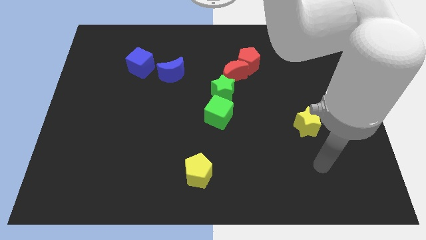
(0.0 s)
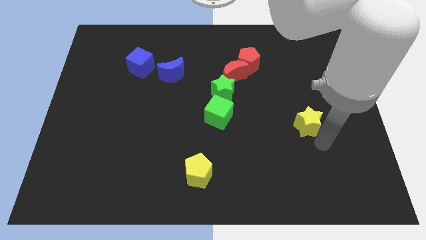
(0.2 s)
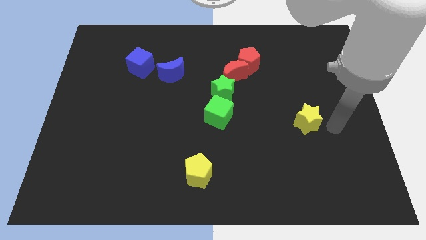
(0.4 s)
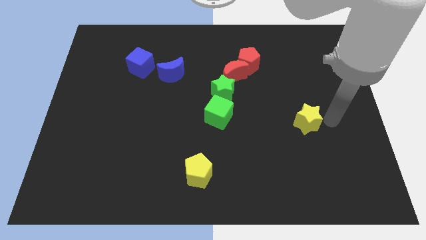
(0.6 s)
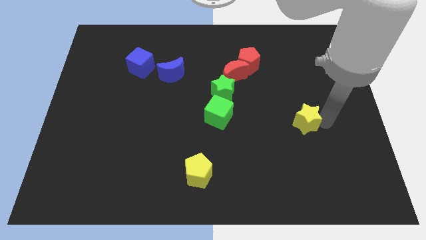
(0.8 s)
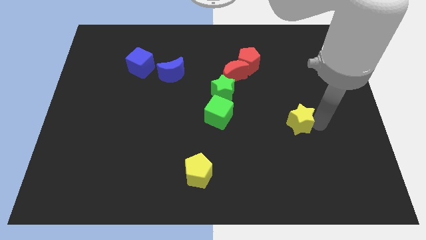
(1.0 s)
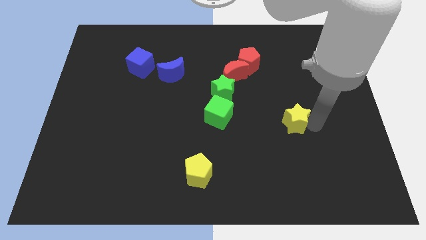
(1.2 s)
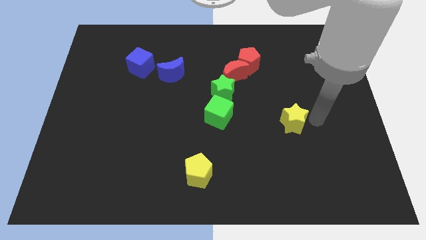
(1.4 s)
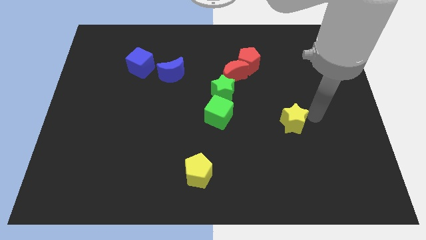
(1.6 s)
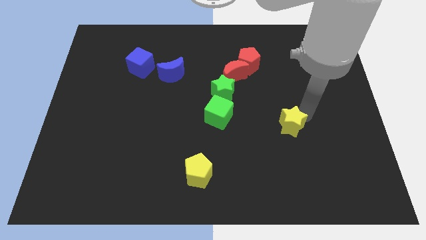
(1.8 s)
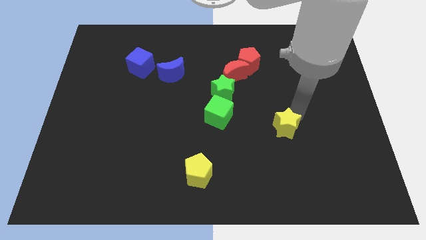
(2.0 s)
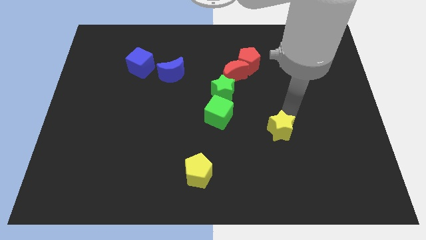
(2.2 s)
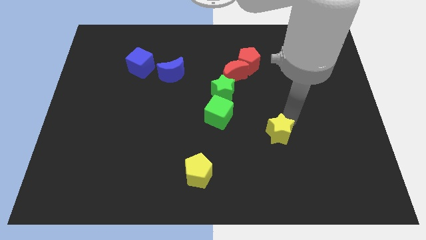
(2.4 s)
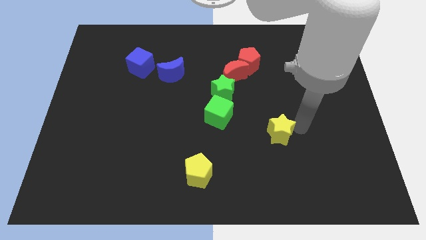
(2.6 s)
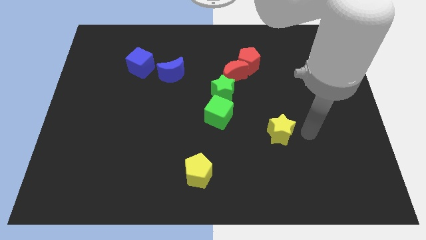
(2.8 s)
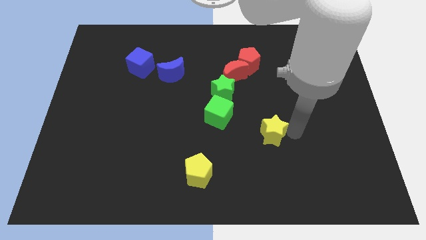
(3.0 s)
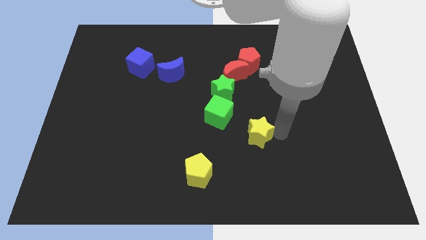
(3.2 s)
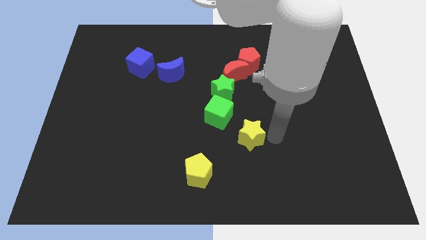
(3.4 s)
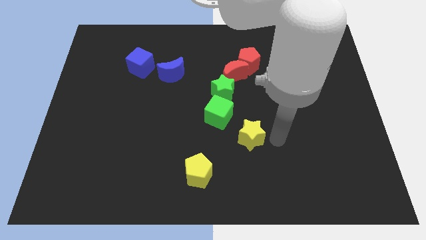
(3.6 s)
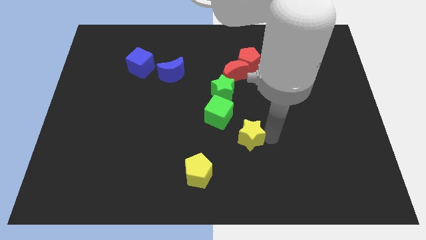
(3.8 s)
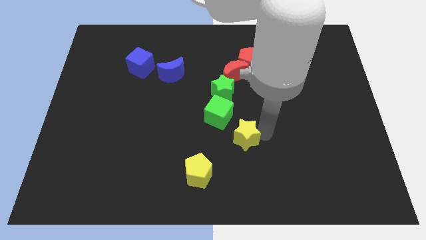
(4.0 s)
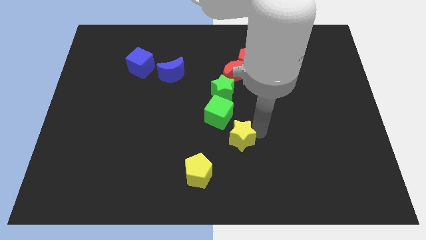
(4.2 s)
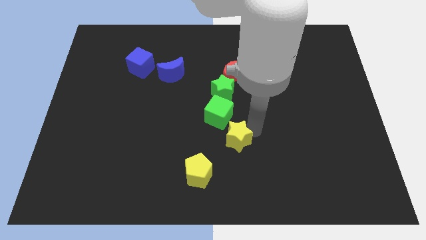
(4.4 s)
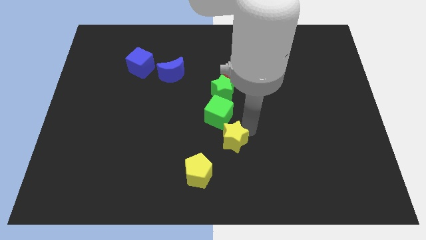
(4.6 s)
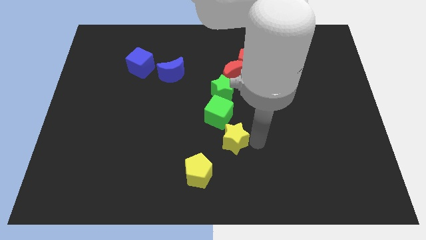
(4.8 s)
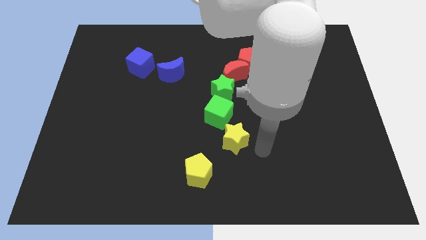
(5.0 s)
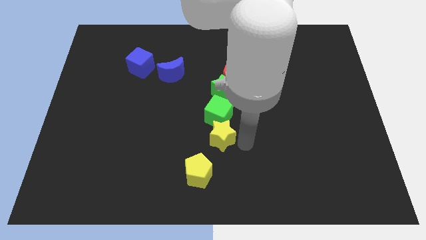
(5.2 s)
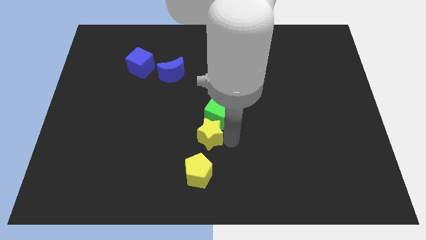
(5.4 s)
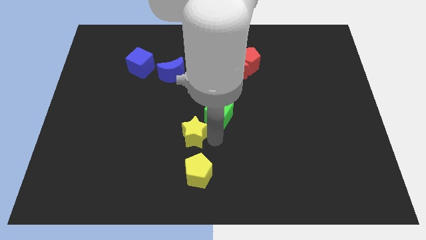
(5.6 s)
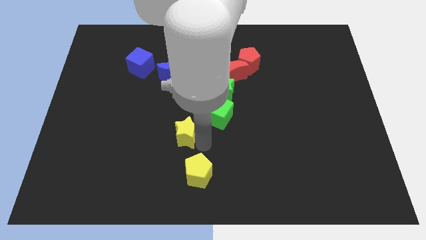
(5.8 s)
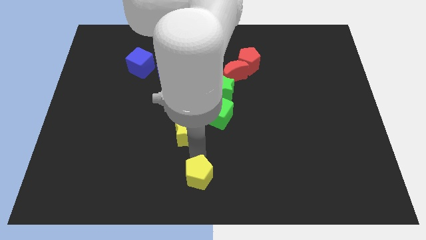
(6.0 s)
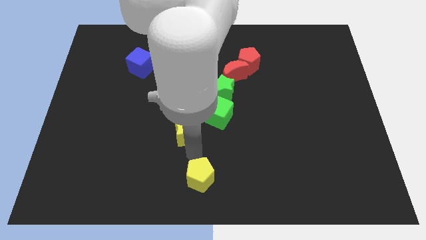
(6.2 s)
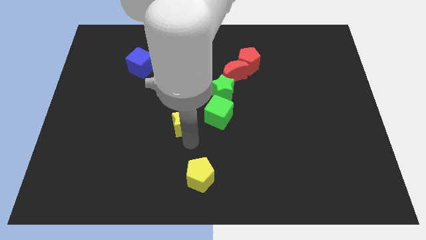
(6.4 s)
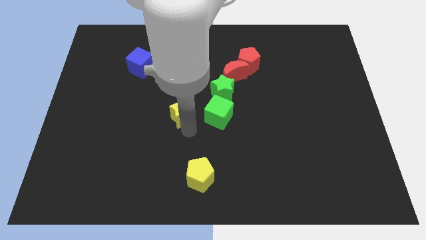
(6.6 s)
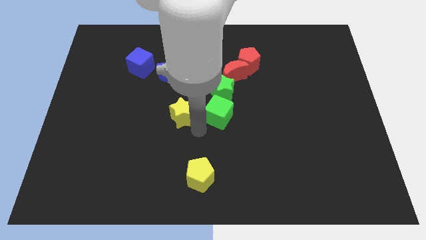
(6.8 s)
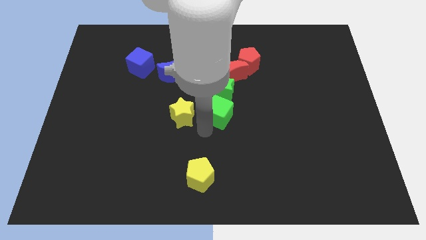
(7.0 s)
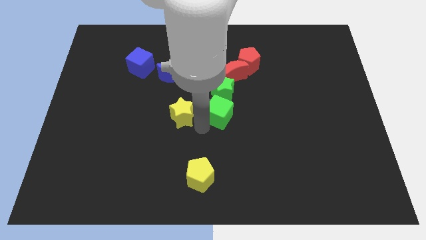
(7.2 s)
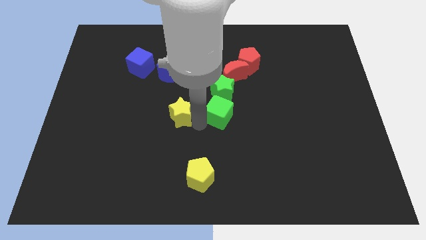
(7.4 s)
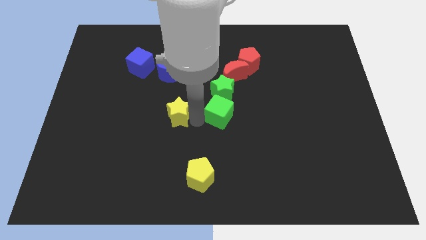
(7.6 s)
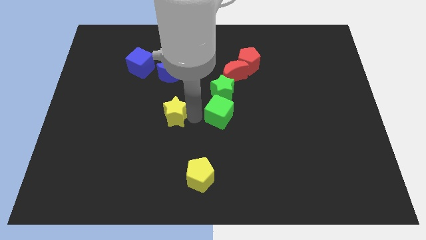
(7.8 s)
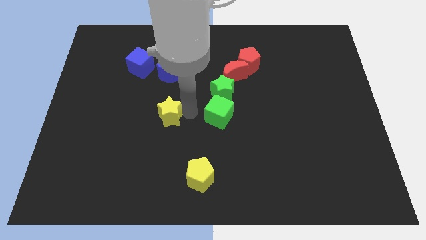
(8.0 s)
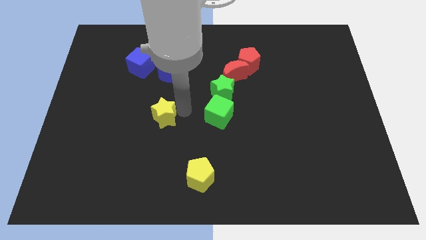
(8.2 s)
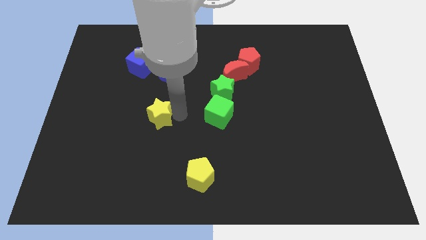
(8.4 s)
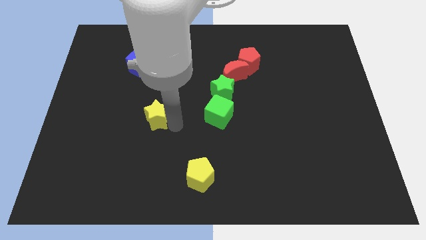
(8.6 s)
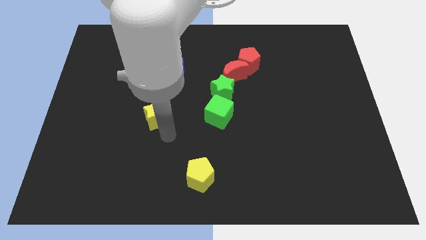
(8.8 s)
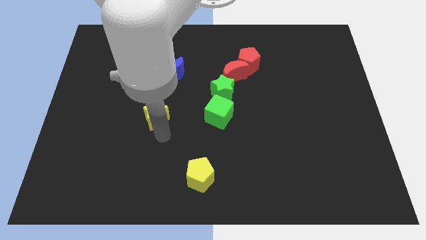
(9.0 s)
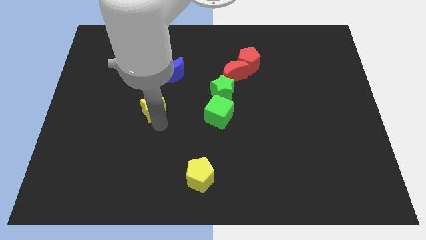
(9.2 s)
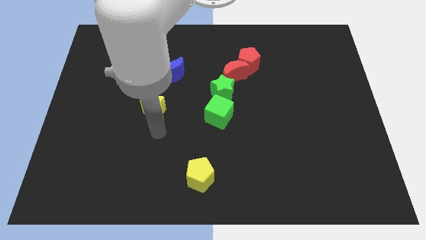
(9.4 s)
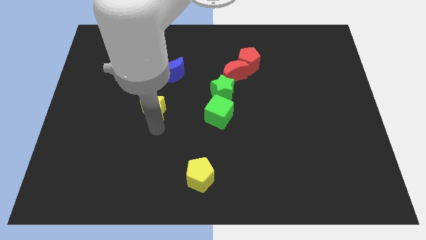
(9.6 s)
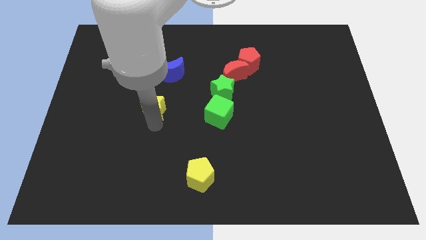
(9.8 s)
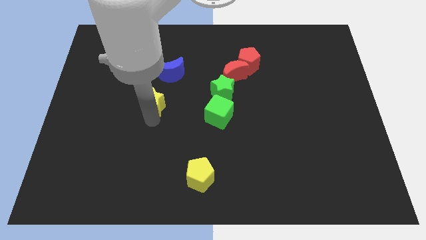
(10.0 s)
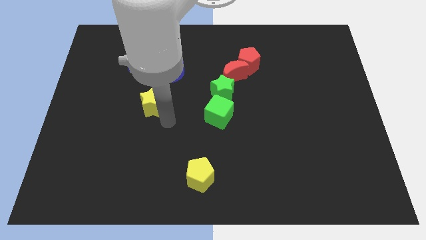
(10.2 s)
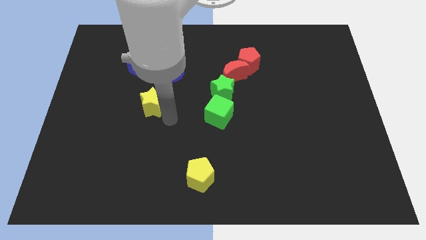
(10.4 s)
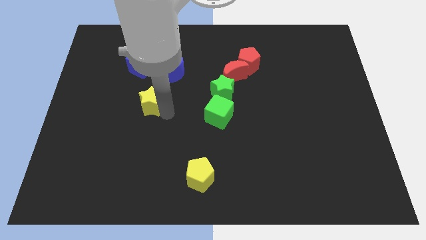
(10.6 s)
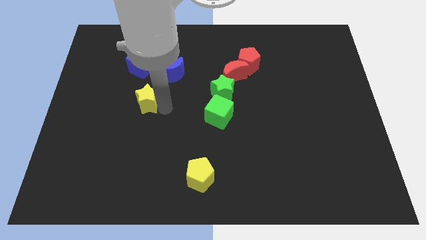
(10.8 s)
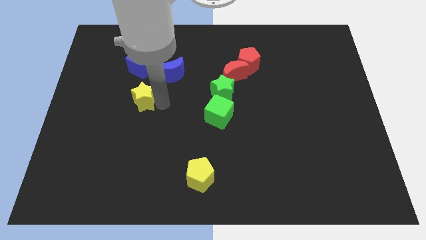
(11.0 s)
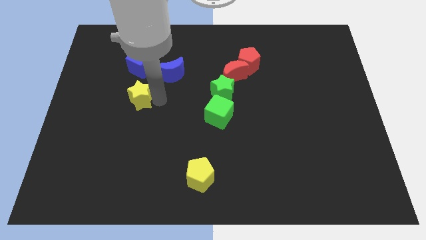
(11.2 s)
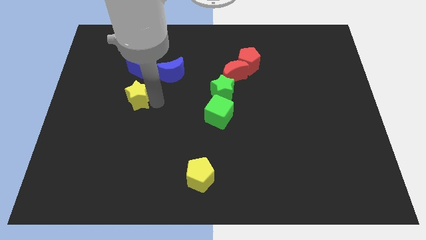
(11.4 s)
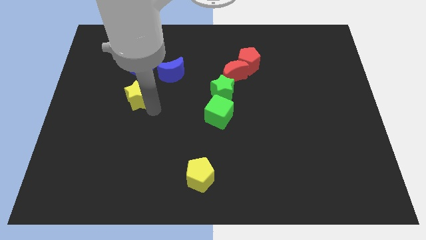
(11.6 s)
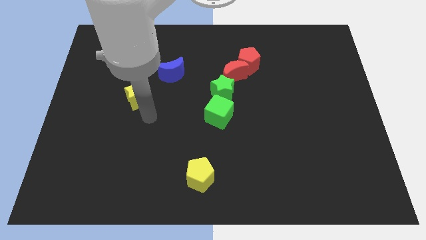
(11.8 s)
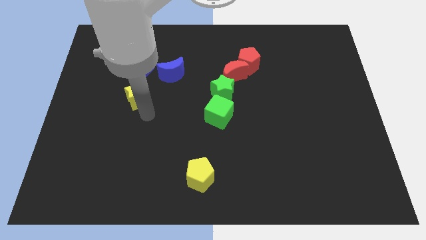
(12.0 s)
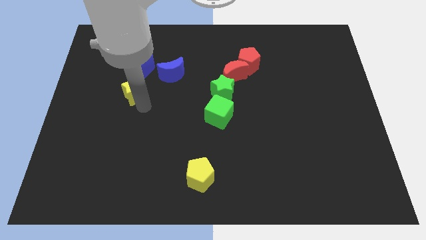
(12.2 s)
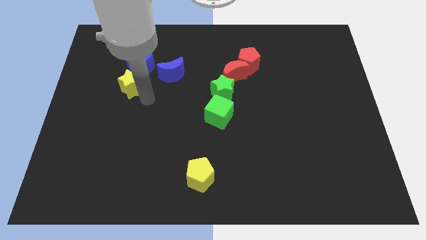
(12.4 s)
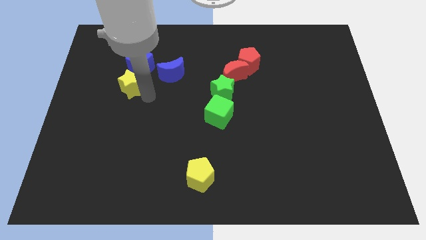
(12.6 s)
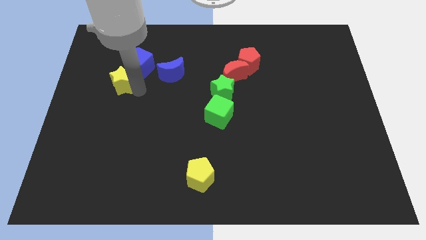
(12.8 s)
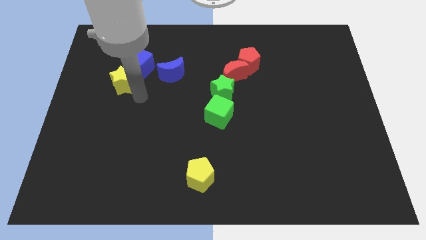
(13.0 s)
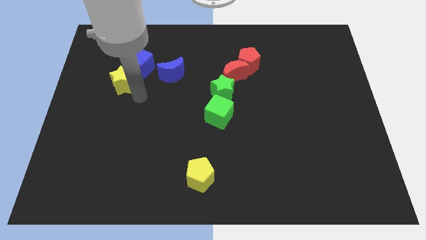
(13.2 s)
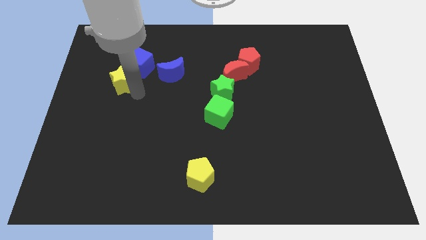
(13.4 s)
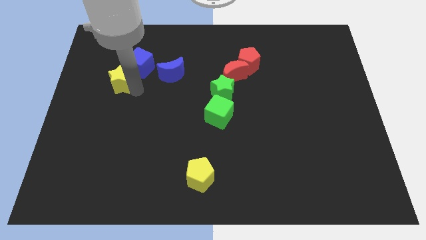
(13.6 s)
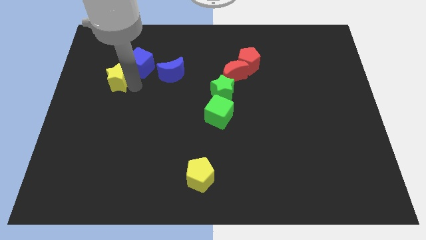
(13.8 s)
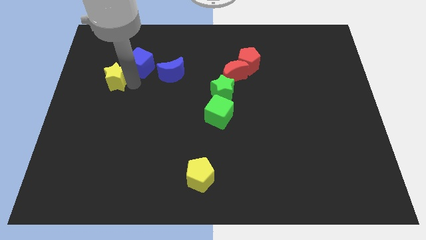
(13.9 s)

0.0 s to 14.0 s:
move the yellow star to the left of the blue cube
